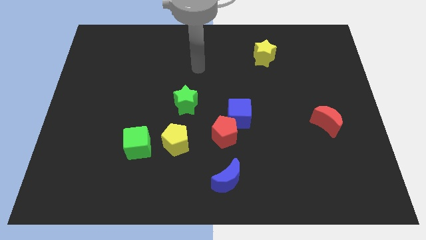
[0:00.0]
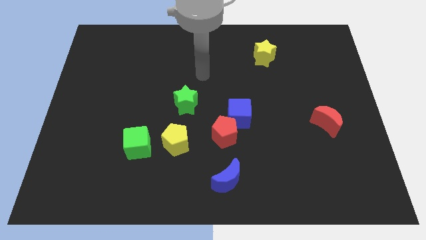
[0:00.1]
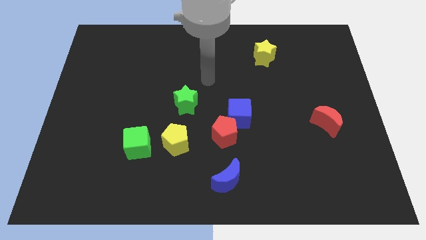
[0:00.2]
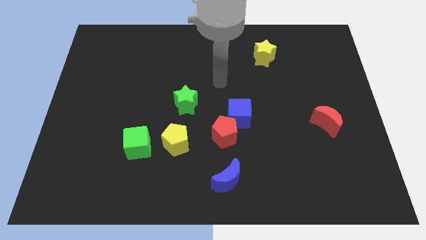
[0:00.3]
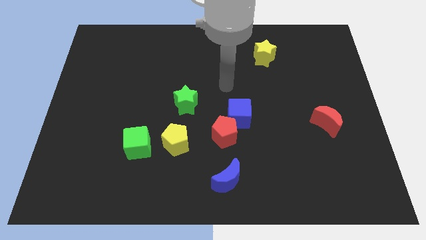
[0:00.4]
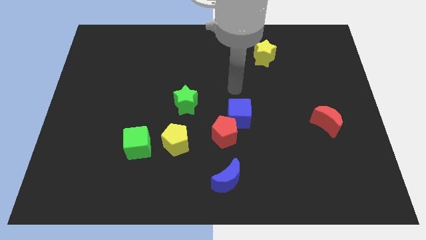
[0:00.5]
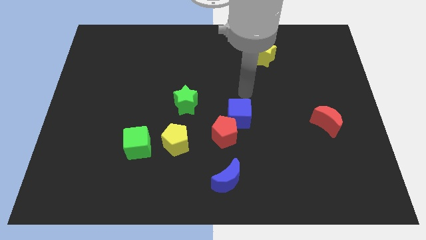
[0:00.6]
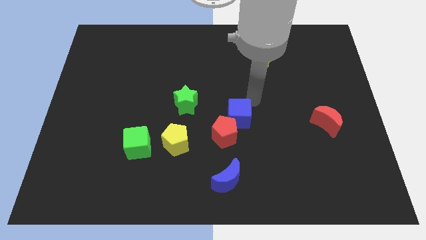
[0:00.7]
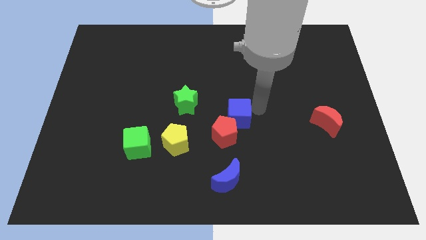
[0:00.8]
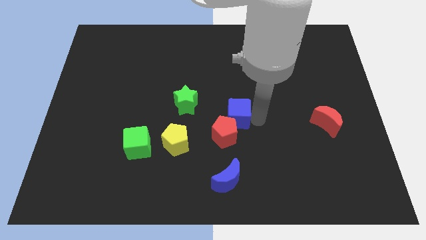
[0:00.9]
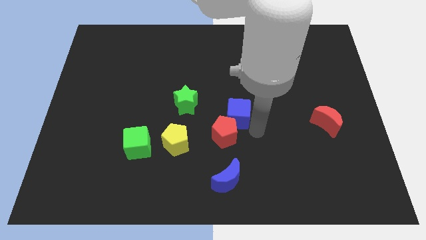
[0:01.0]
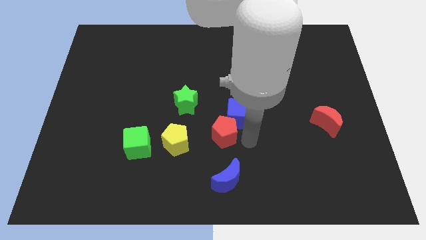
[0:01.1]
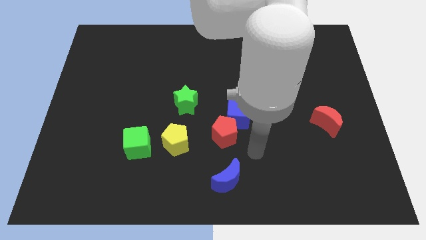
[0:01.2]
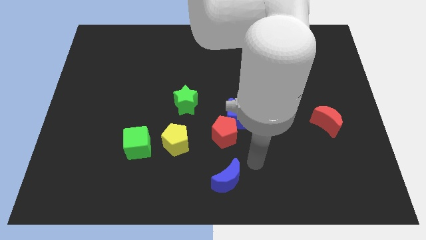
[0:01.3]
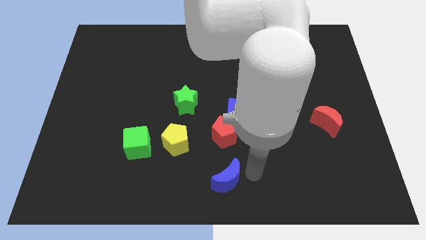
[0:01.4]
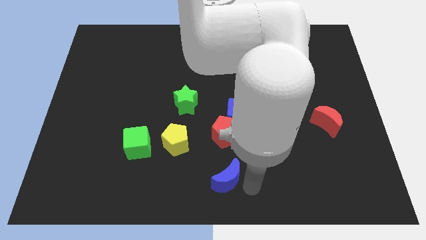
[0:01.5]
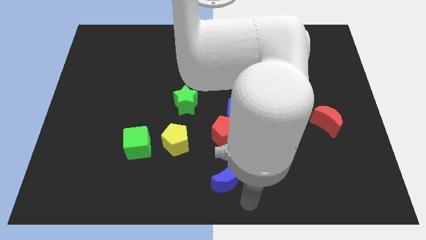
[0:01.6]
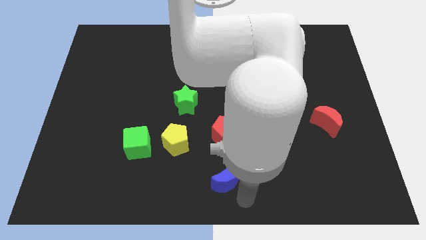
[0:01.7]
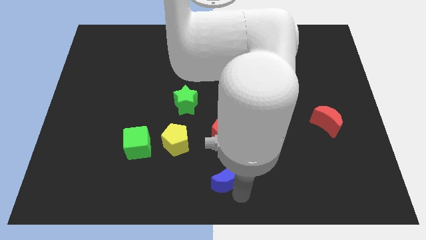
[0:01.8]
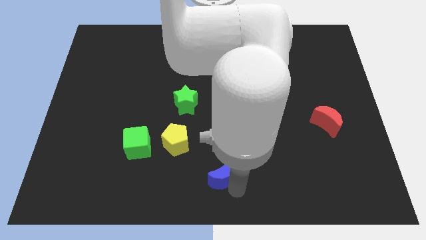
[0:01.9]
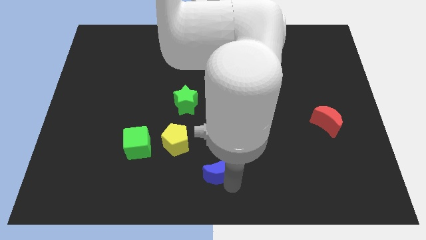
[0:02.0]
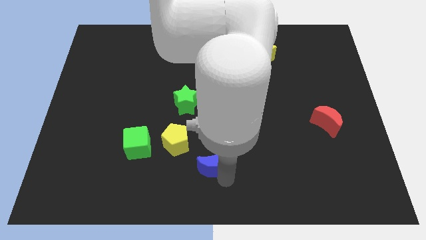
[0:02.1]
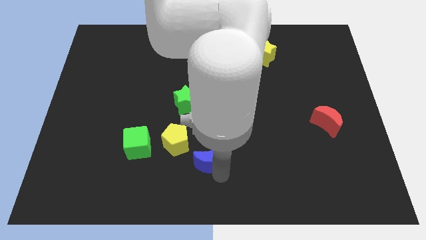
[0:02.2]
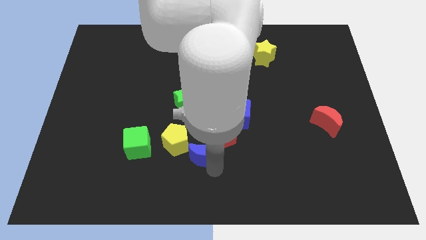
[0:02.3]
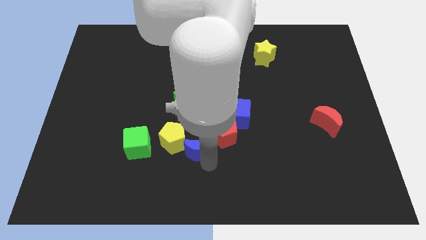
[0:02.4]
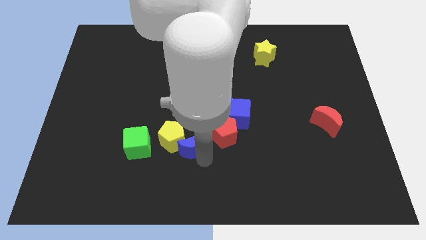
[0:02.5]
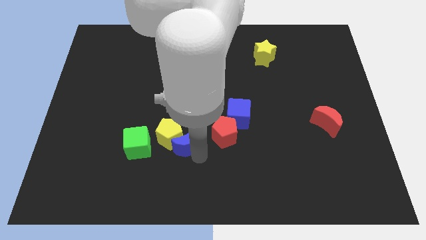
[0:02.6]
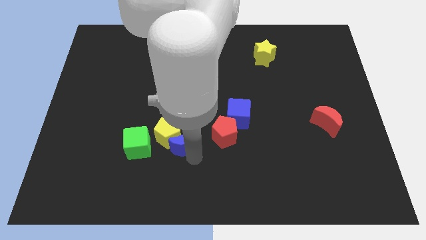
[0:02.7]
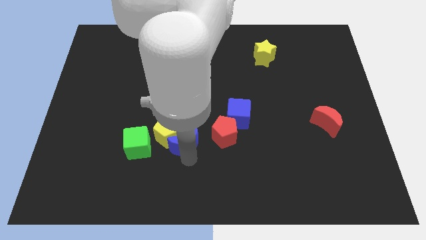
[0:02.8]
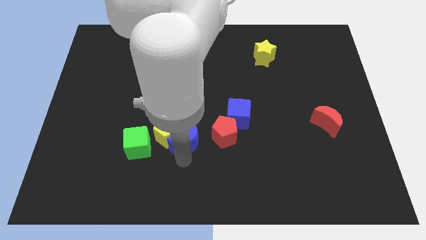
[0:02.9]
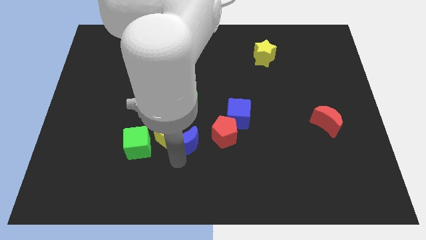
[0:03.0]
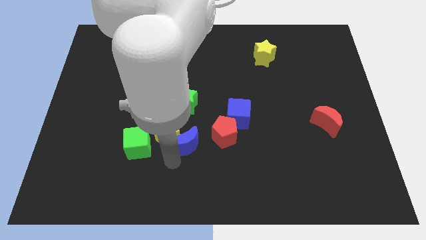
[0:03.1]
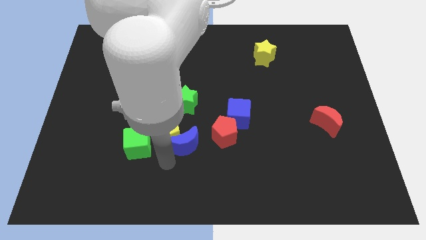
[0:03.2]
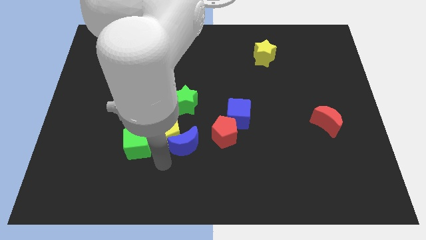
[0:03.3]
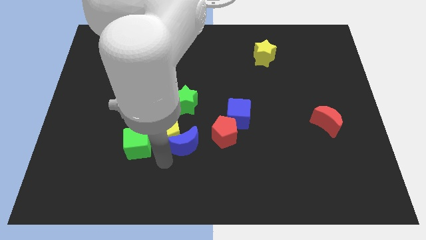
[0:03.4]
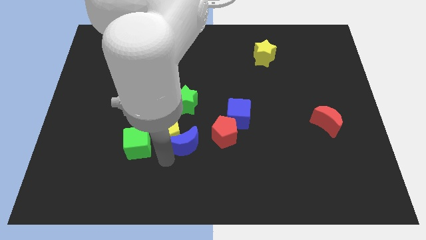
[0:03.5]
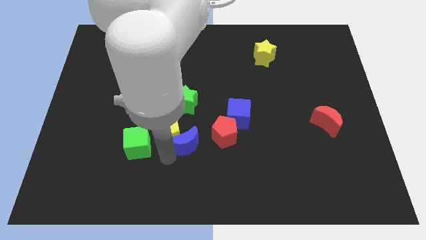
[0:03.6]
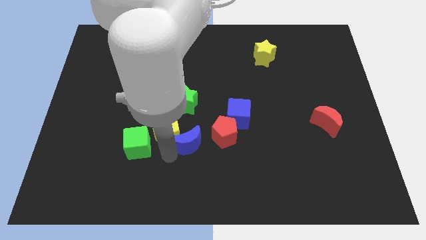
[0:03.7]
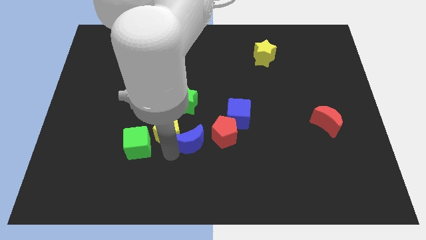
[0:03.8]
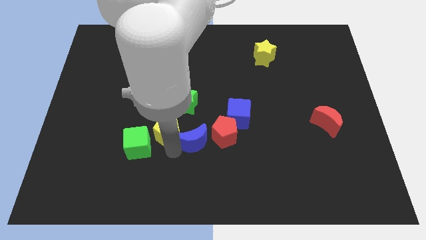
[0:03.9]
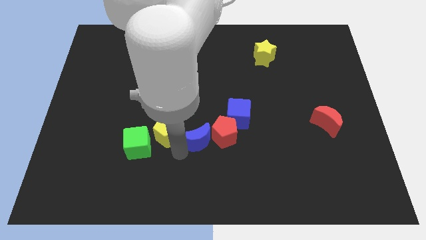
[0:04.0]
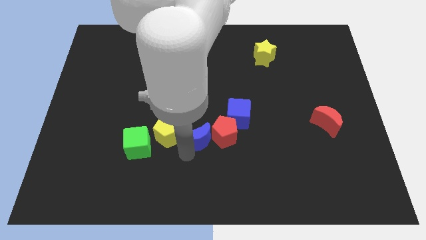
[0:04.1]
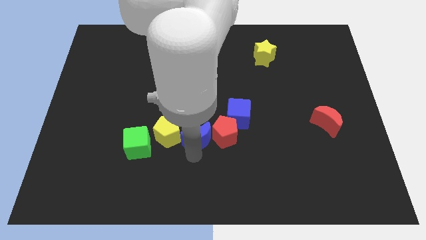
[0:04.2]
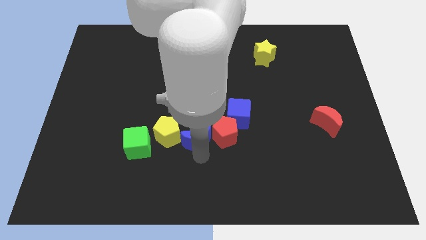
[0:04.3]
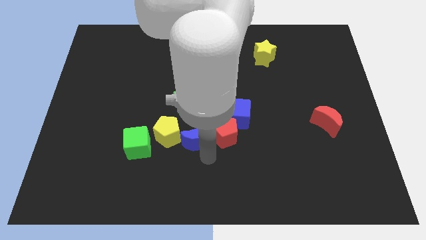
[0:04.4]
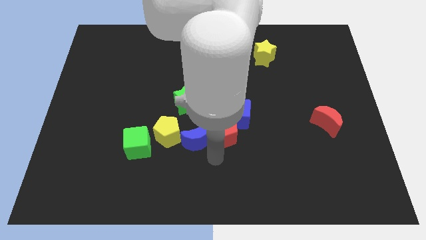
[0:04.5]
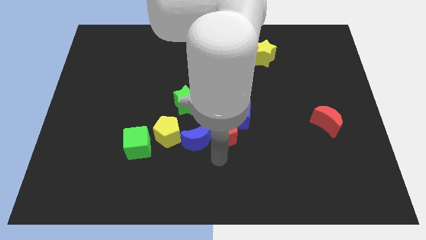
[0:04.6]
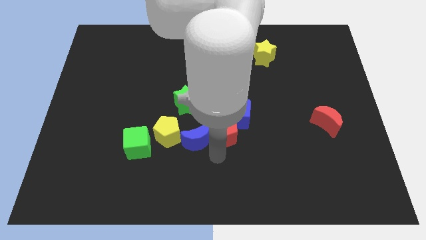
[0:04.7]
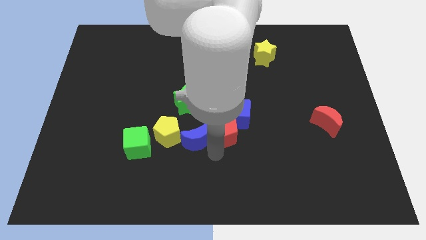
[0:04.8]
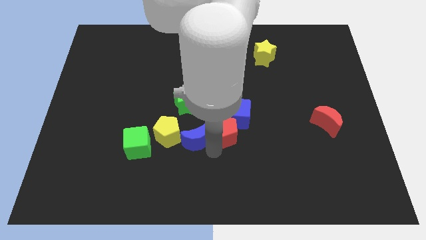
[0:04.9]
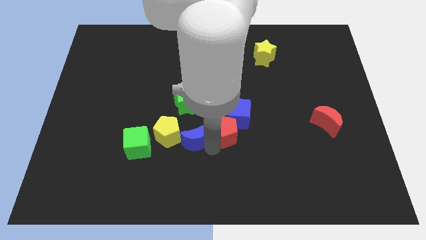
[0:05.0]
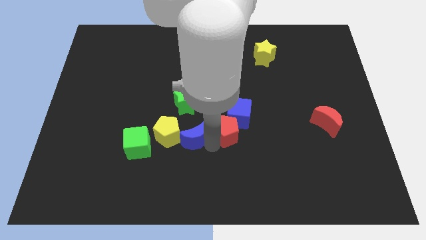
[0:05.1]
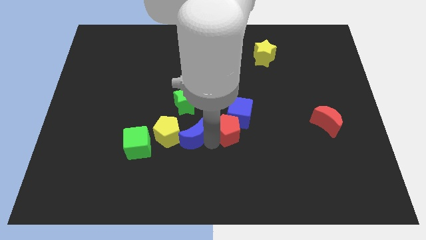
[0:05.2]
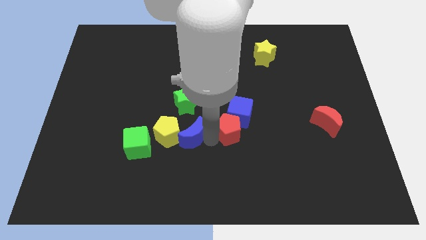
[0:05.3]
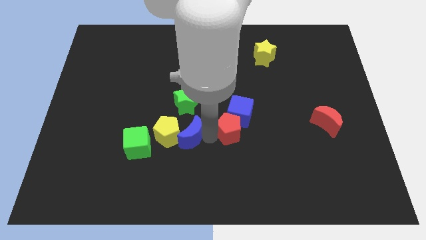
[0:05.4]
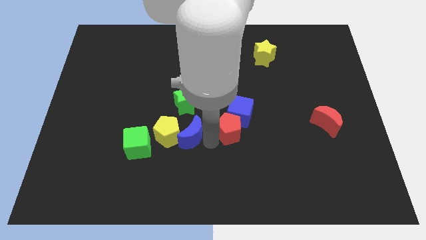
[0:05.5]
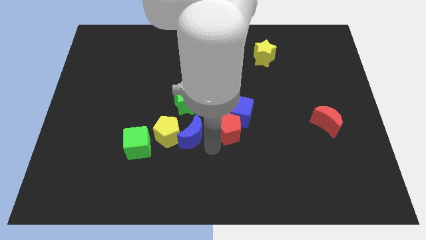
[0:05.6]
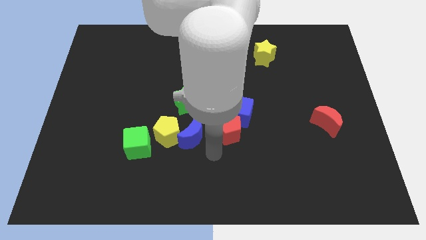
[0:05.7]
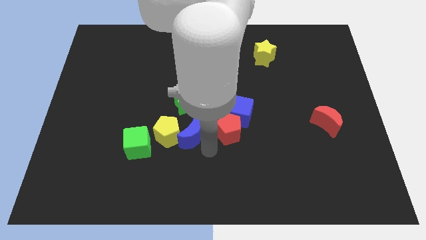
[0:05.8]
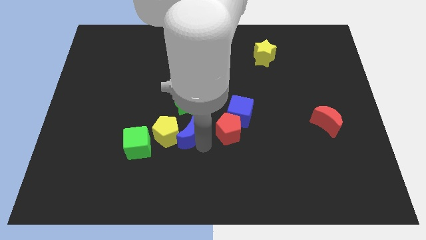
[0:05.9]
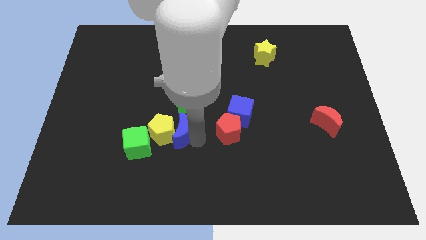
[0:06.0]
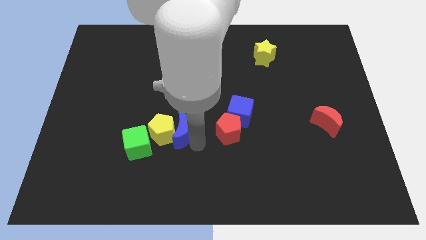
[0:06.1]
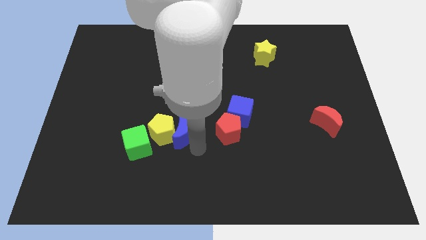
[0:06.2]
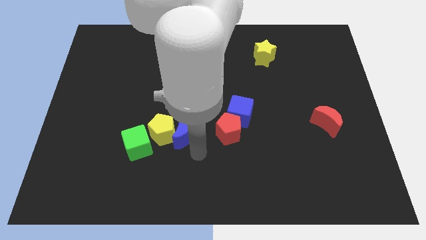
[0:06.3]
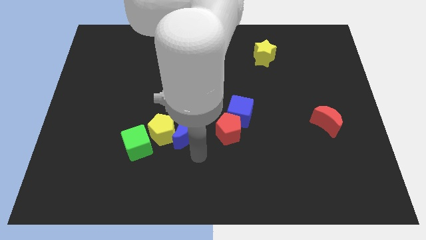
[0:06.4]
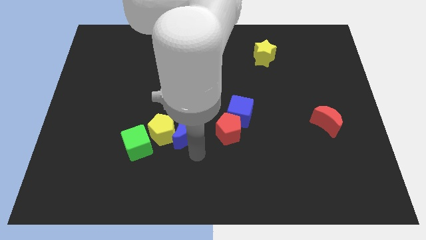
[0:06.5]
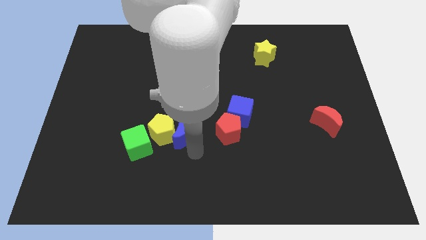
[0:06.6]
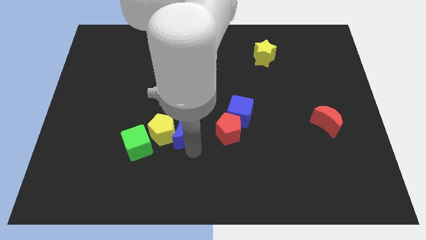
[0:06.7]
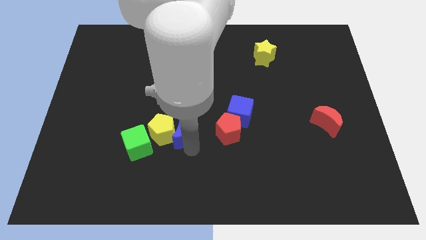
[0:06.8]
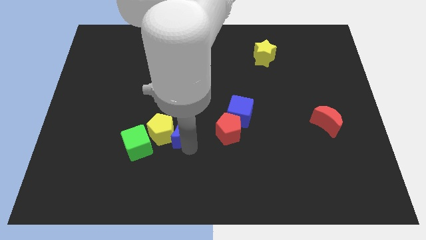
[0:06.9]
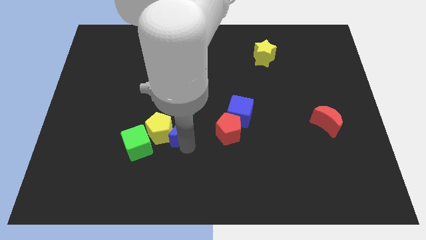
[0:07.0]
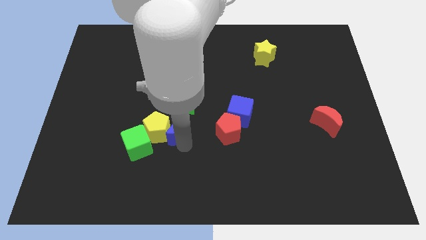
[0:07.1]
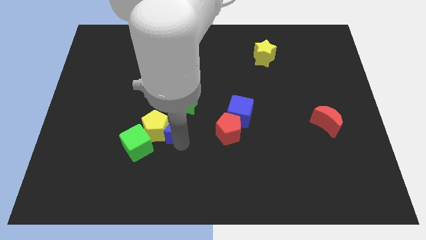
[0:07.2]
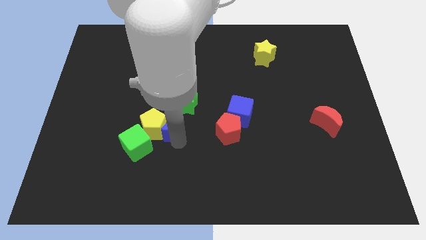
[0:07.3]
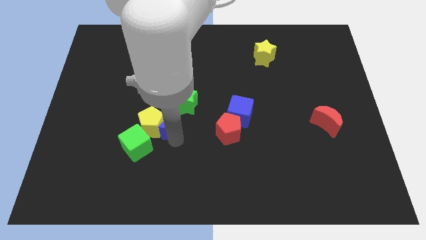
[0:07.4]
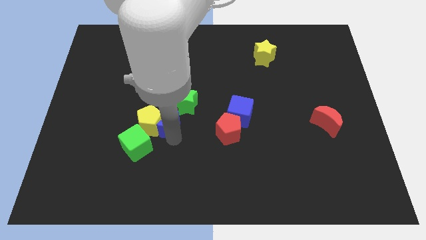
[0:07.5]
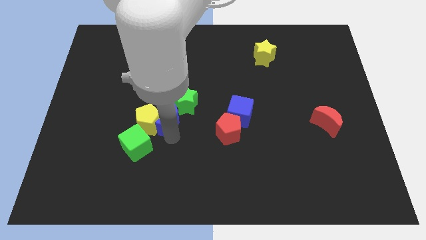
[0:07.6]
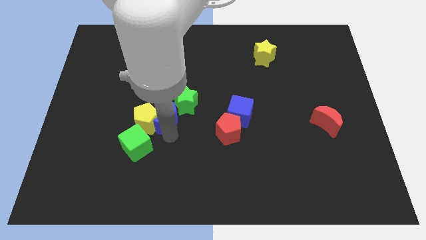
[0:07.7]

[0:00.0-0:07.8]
push the blue moon up and left
